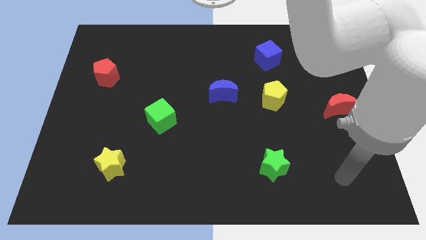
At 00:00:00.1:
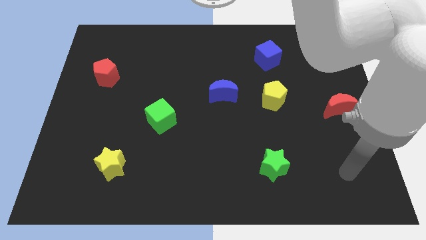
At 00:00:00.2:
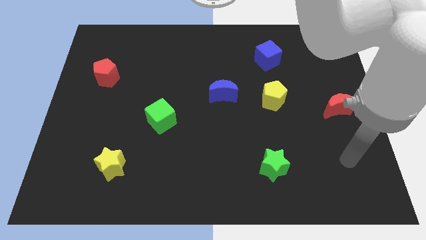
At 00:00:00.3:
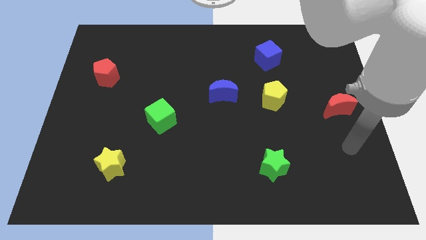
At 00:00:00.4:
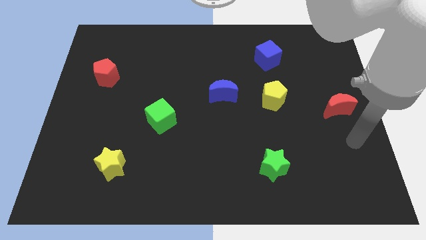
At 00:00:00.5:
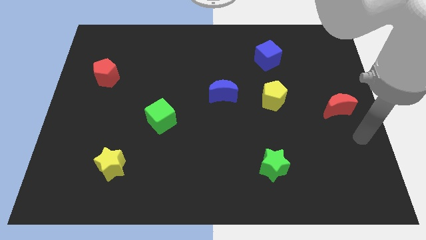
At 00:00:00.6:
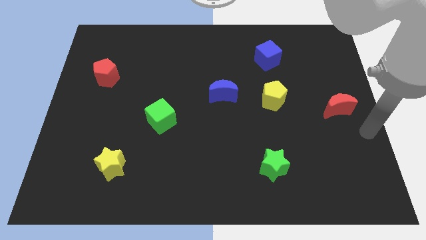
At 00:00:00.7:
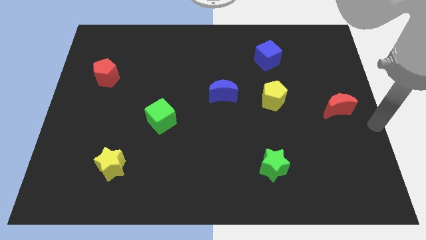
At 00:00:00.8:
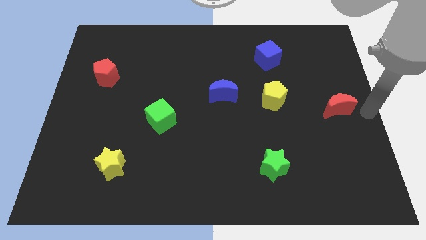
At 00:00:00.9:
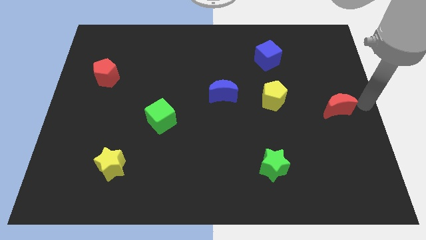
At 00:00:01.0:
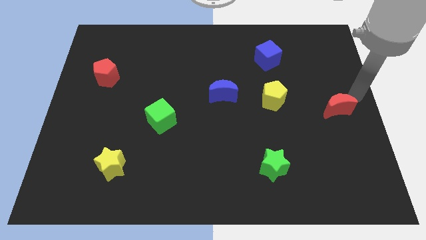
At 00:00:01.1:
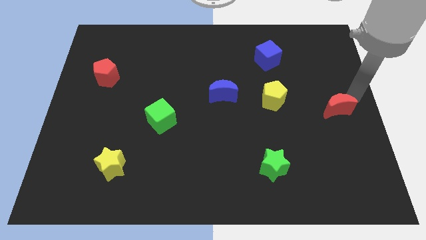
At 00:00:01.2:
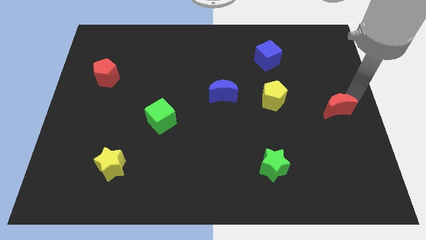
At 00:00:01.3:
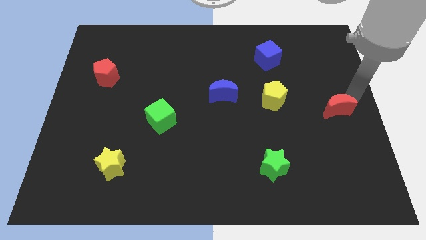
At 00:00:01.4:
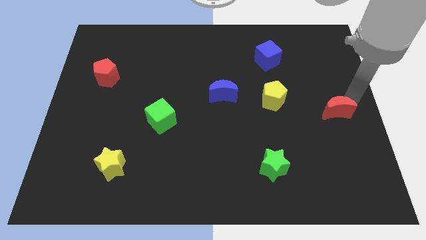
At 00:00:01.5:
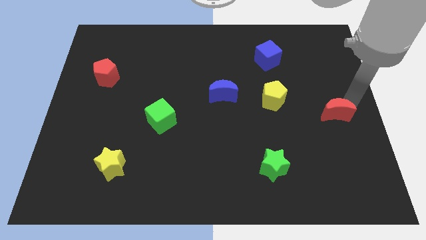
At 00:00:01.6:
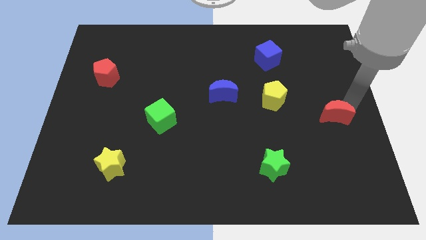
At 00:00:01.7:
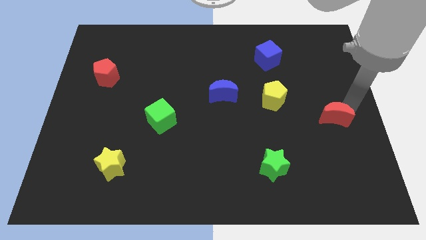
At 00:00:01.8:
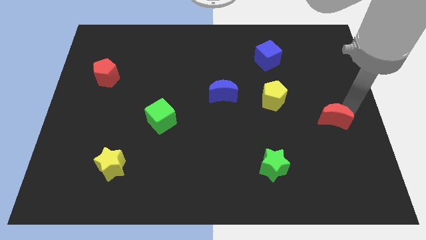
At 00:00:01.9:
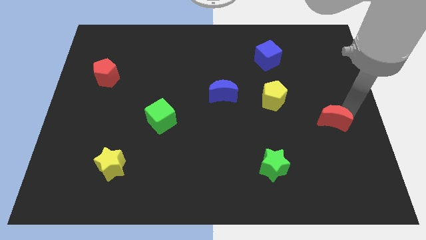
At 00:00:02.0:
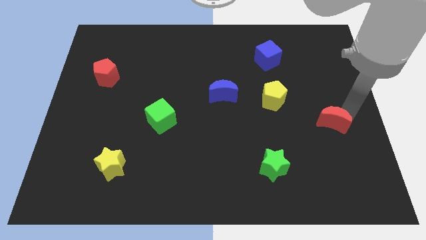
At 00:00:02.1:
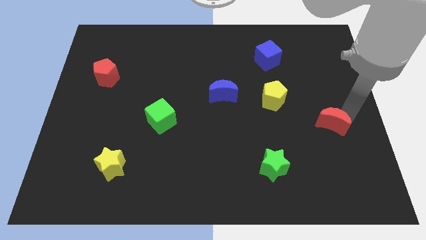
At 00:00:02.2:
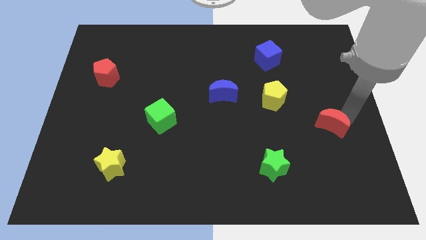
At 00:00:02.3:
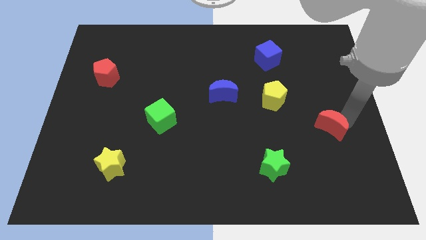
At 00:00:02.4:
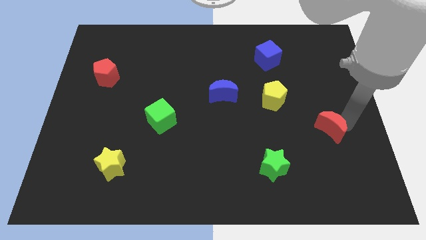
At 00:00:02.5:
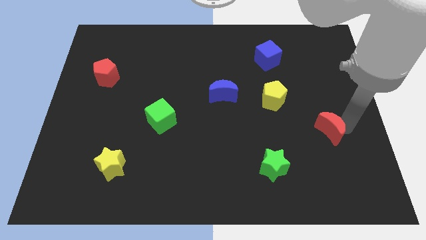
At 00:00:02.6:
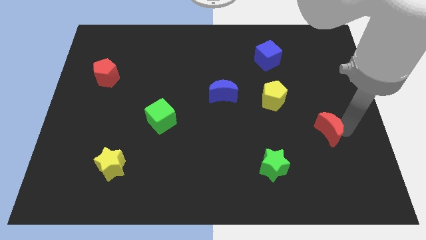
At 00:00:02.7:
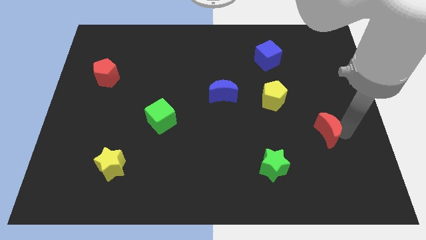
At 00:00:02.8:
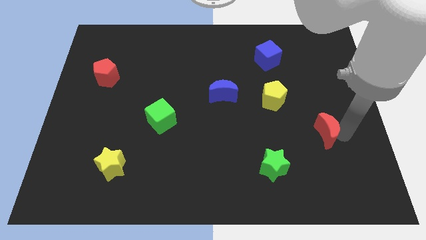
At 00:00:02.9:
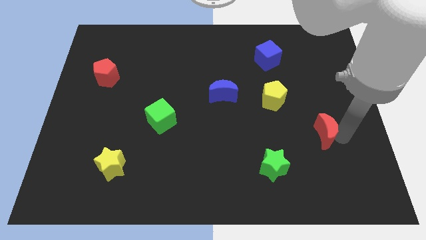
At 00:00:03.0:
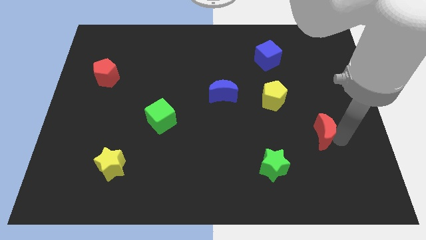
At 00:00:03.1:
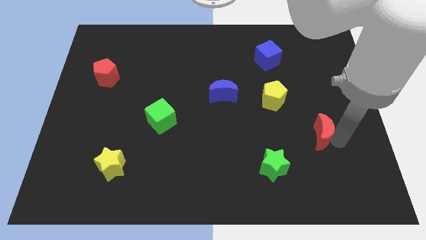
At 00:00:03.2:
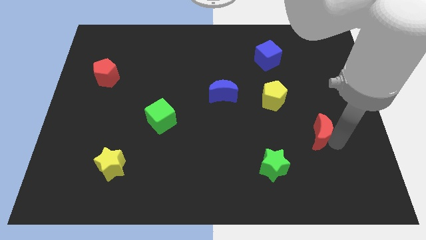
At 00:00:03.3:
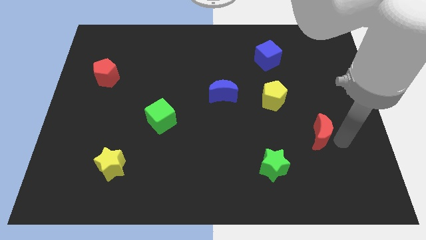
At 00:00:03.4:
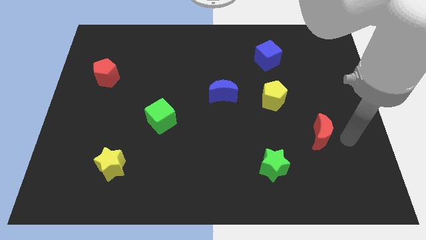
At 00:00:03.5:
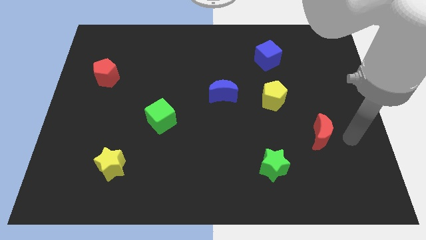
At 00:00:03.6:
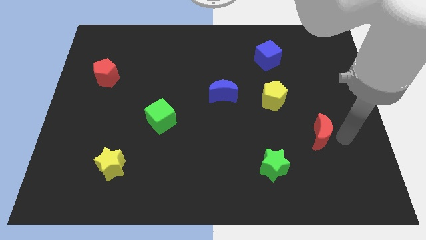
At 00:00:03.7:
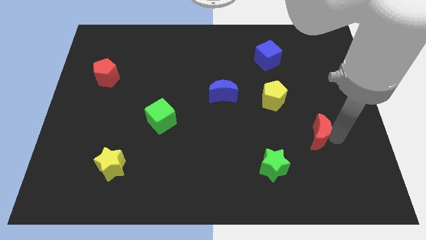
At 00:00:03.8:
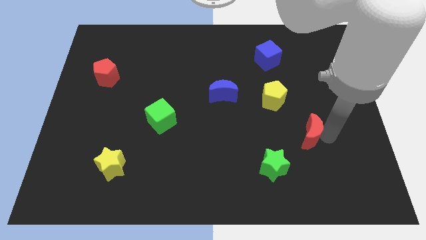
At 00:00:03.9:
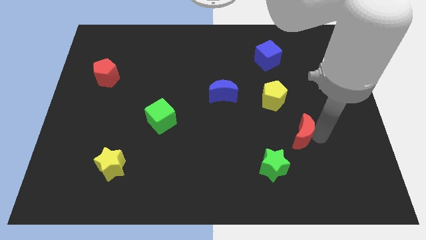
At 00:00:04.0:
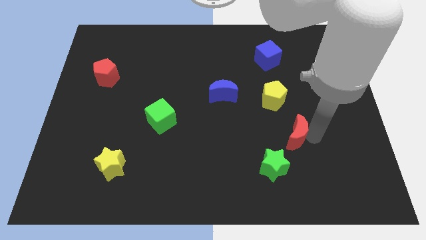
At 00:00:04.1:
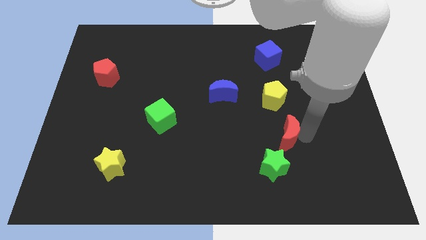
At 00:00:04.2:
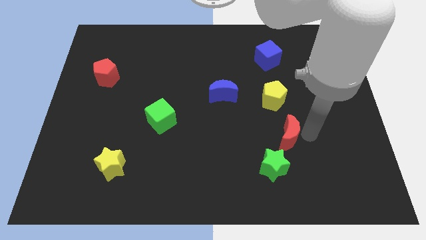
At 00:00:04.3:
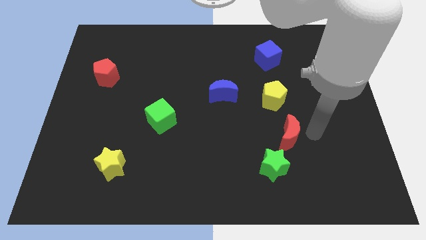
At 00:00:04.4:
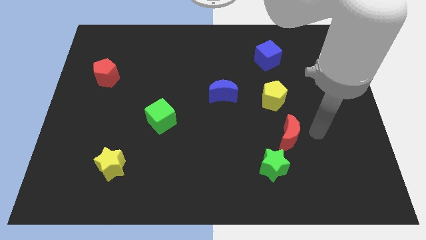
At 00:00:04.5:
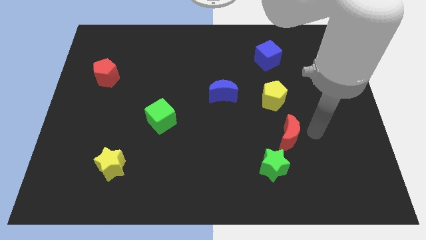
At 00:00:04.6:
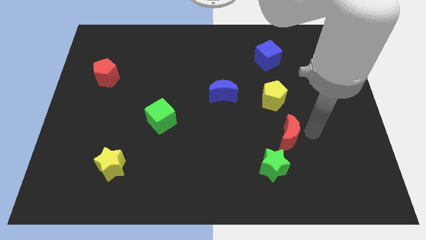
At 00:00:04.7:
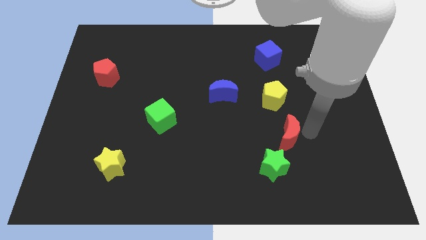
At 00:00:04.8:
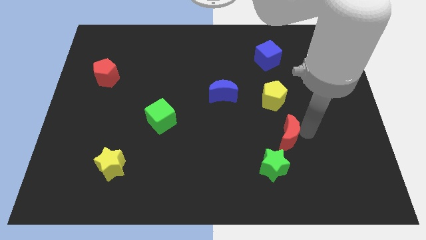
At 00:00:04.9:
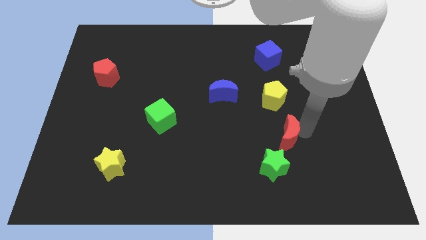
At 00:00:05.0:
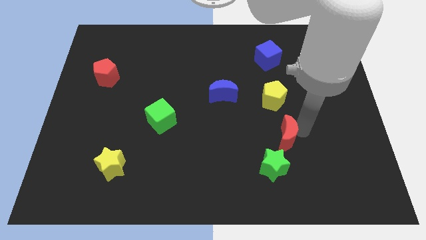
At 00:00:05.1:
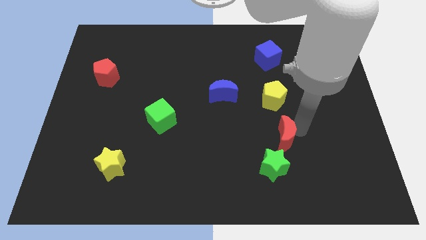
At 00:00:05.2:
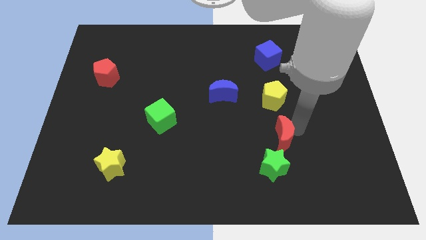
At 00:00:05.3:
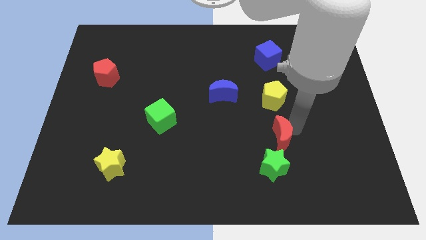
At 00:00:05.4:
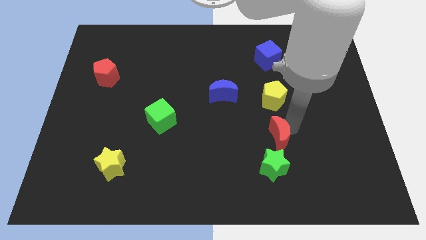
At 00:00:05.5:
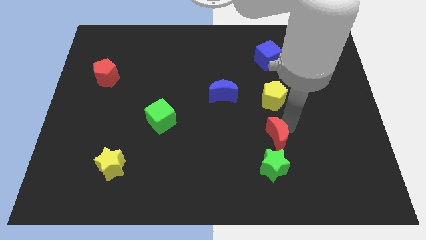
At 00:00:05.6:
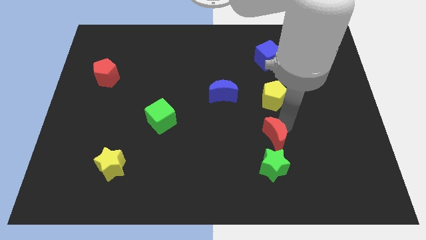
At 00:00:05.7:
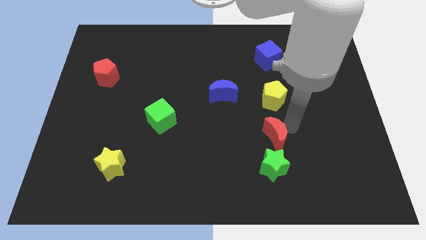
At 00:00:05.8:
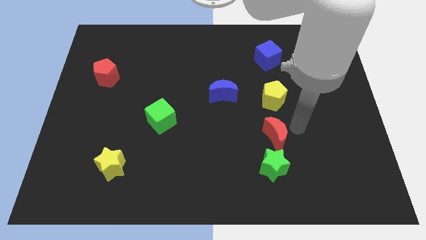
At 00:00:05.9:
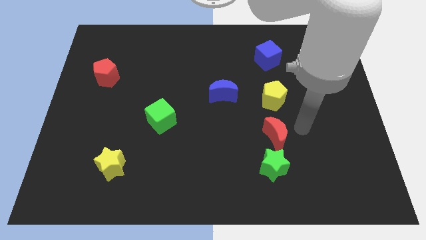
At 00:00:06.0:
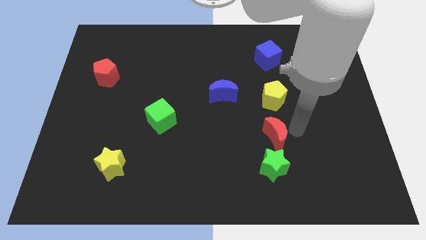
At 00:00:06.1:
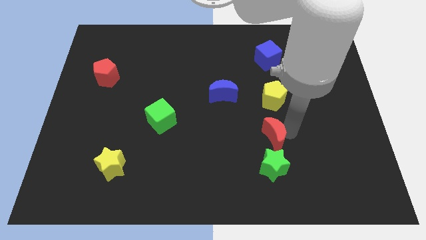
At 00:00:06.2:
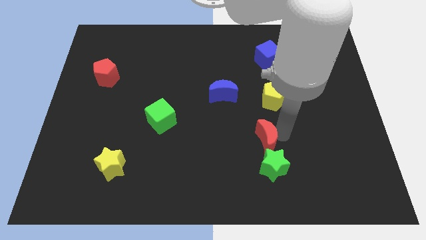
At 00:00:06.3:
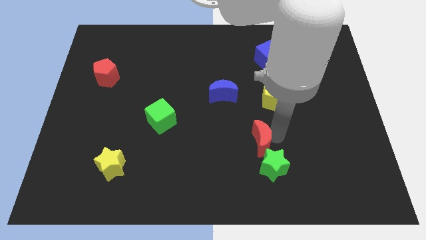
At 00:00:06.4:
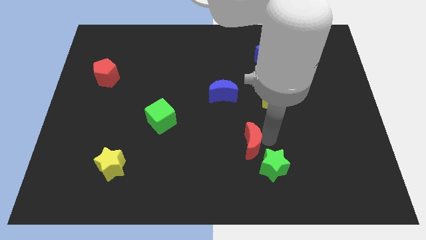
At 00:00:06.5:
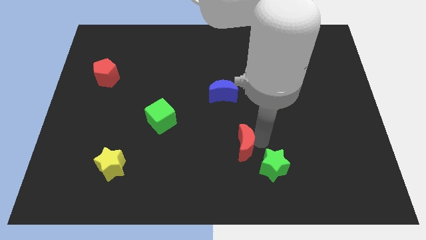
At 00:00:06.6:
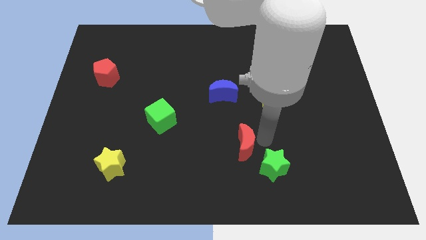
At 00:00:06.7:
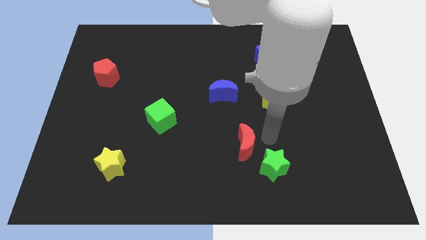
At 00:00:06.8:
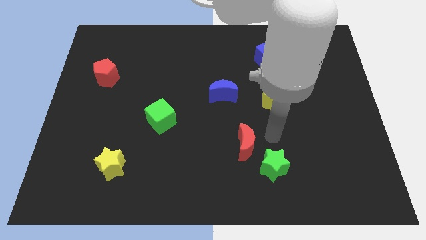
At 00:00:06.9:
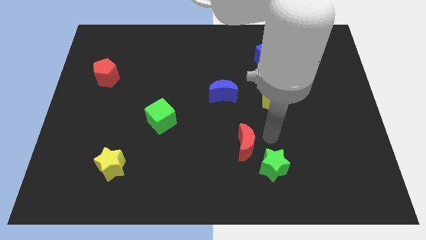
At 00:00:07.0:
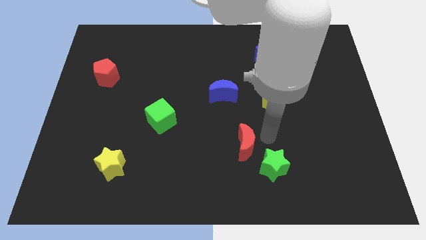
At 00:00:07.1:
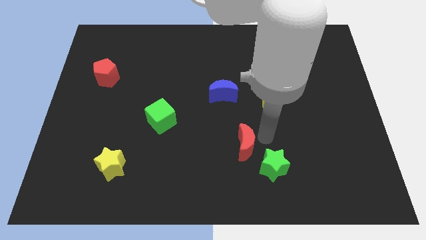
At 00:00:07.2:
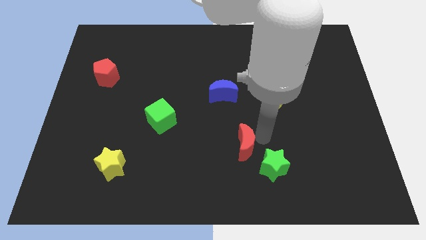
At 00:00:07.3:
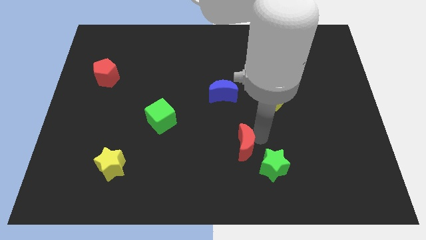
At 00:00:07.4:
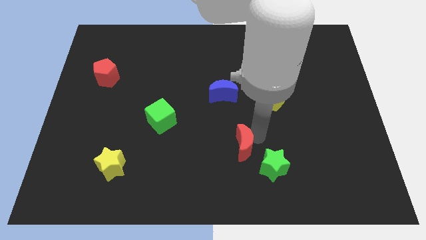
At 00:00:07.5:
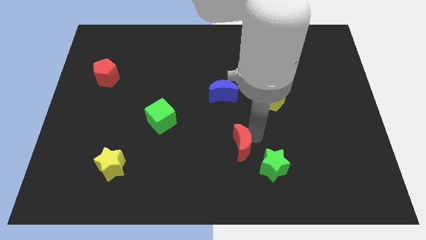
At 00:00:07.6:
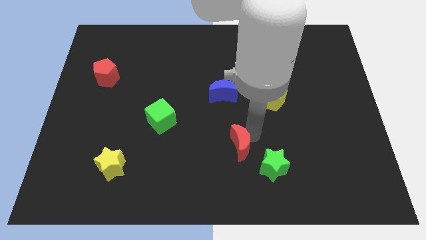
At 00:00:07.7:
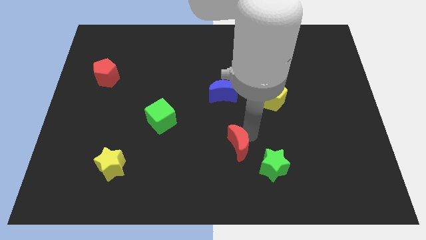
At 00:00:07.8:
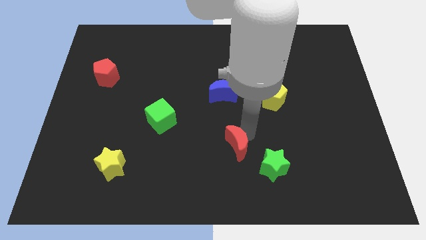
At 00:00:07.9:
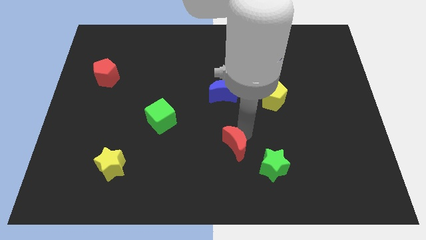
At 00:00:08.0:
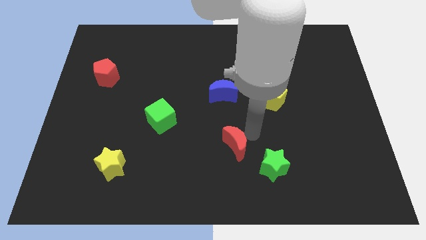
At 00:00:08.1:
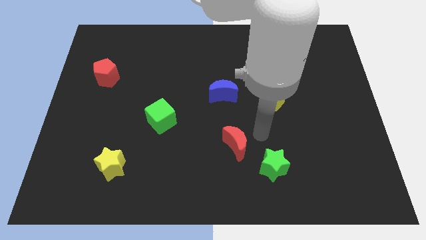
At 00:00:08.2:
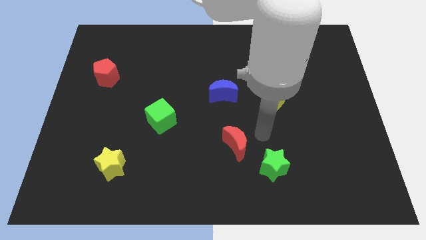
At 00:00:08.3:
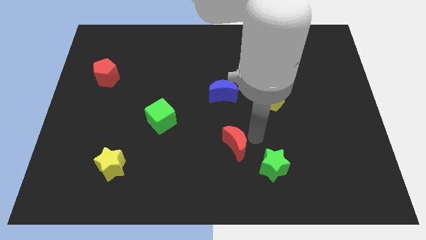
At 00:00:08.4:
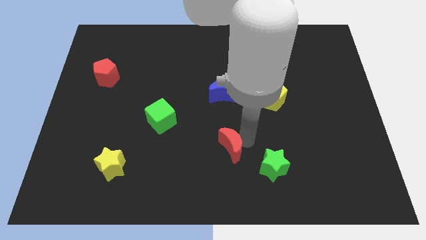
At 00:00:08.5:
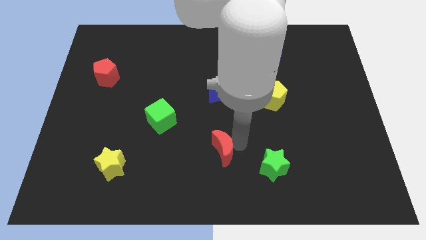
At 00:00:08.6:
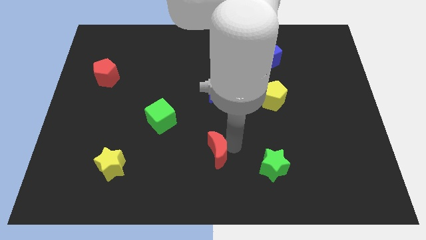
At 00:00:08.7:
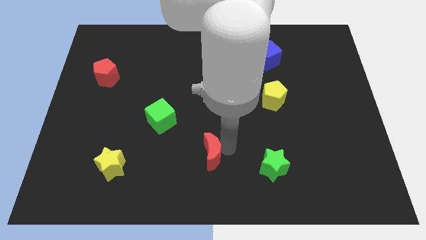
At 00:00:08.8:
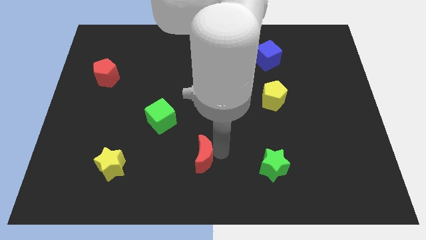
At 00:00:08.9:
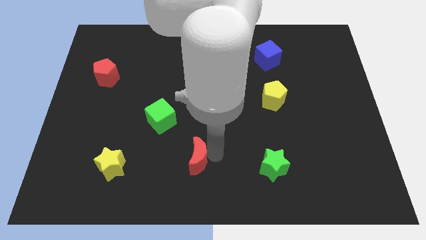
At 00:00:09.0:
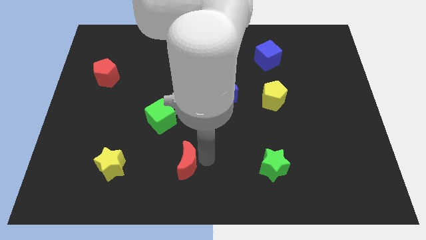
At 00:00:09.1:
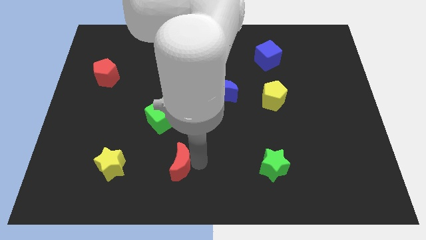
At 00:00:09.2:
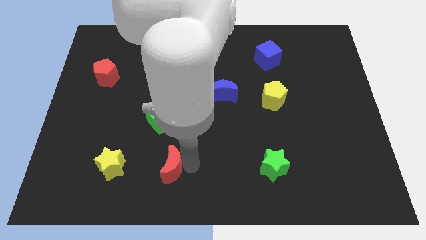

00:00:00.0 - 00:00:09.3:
move the red moon to the bottom side of the green cube
